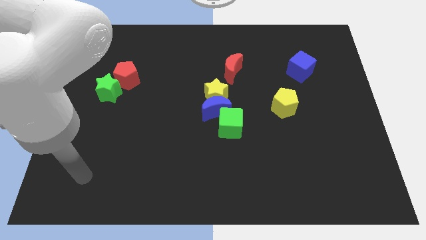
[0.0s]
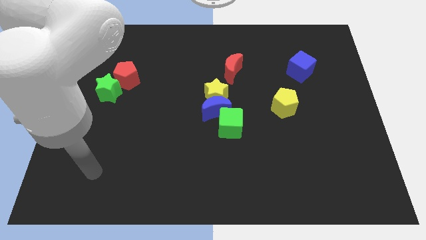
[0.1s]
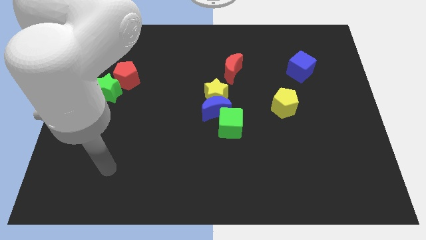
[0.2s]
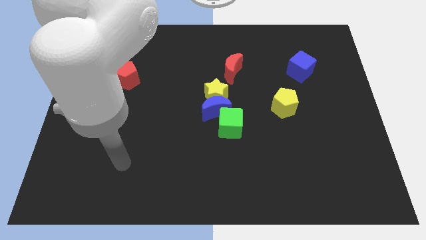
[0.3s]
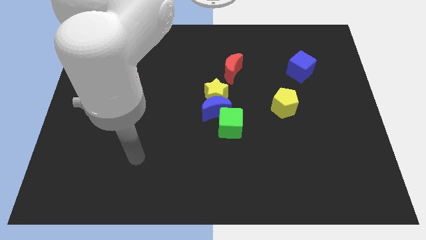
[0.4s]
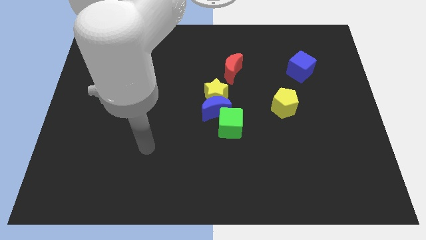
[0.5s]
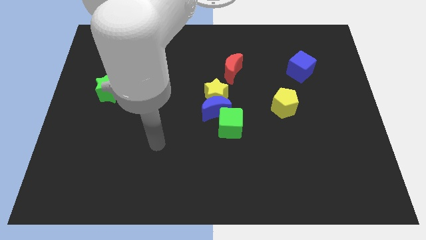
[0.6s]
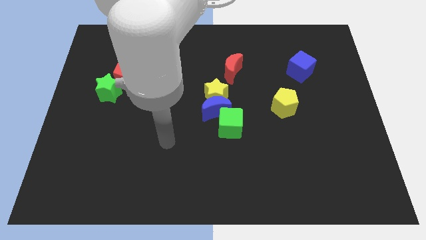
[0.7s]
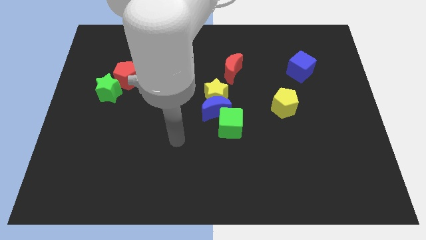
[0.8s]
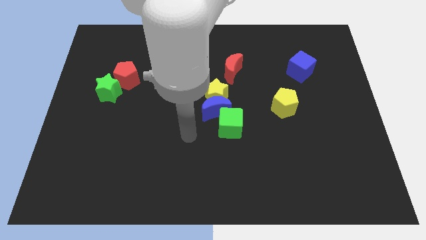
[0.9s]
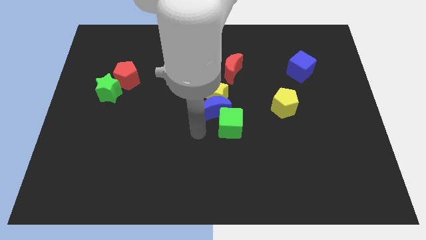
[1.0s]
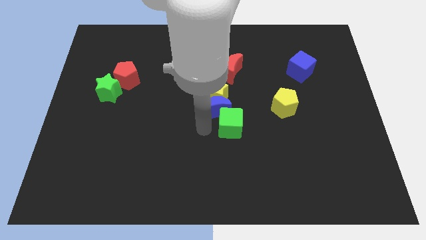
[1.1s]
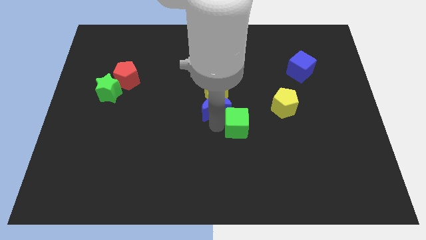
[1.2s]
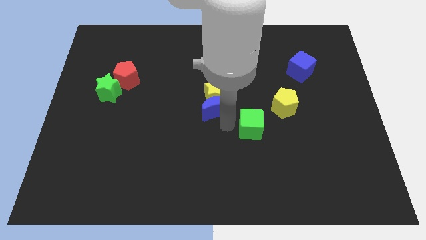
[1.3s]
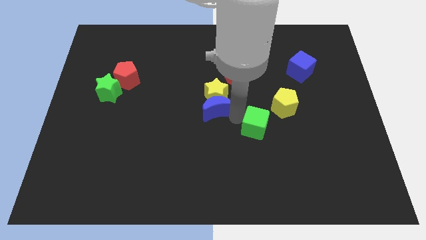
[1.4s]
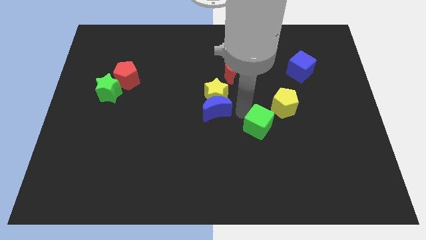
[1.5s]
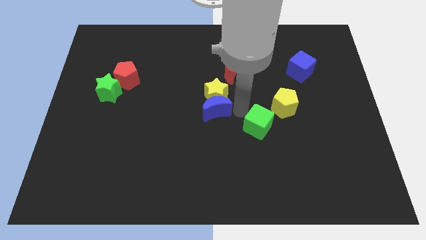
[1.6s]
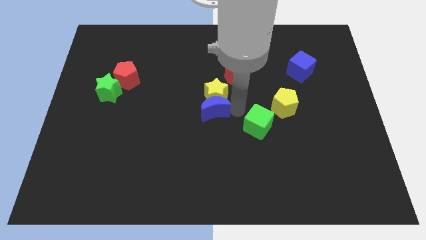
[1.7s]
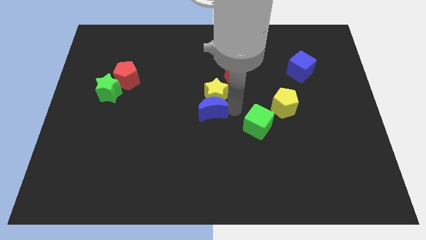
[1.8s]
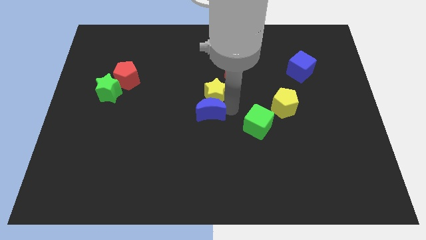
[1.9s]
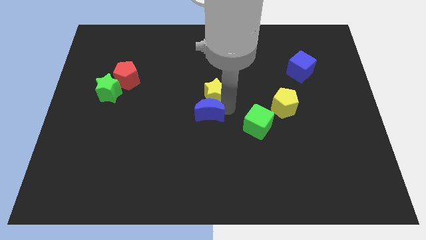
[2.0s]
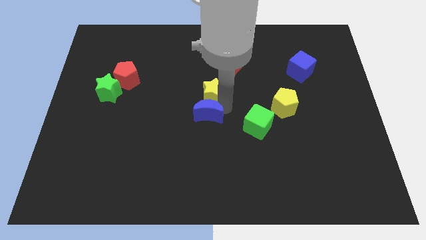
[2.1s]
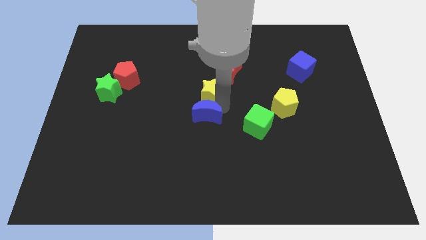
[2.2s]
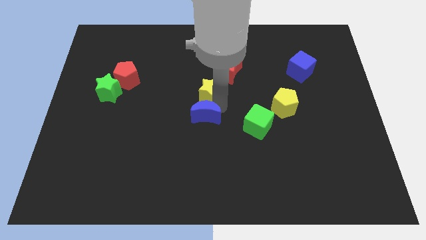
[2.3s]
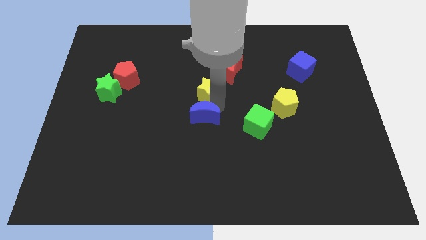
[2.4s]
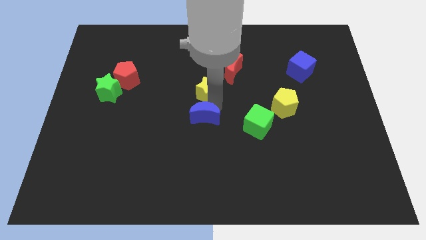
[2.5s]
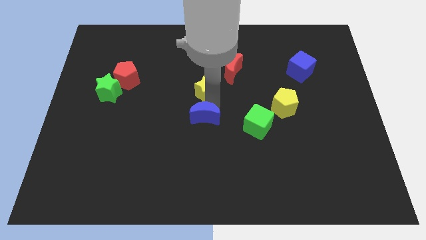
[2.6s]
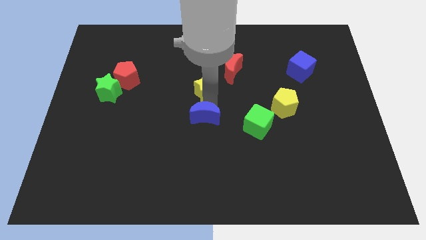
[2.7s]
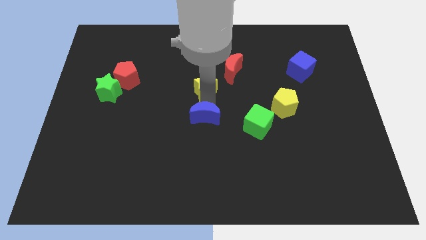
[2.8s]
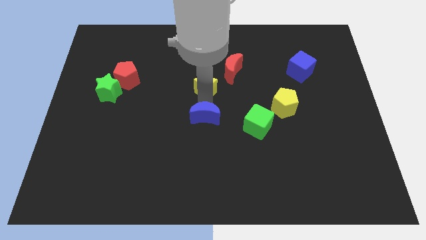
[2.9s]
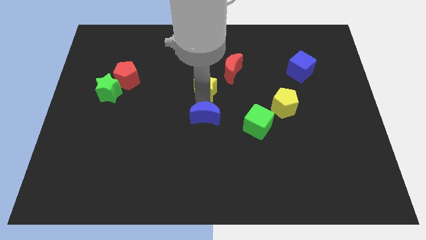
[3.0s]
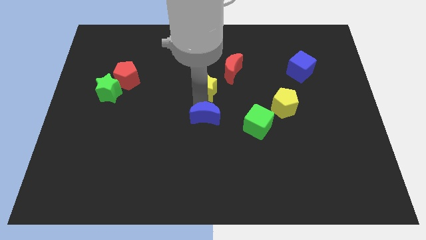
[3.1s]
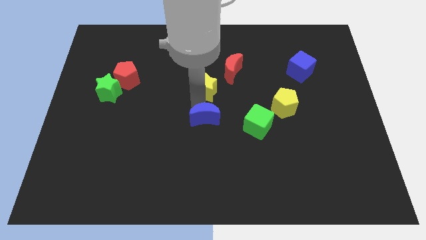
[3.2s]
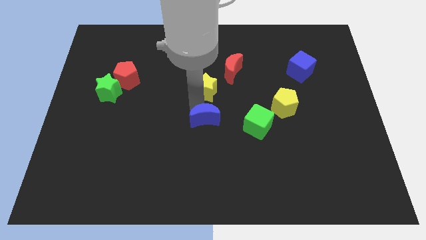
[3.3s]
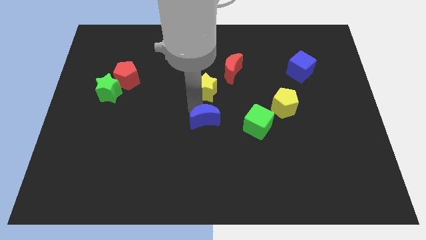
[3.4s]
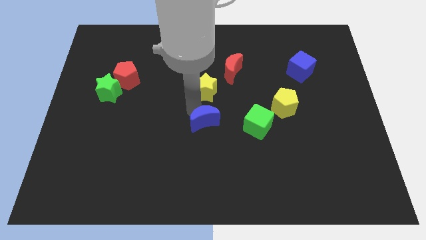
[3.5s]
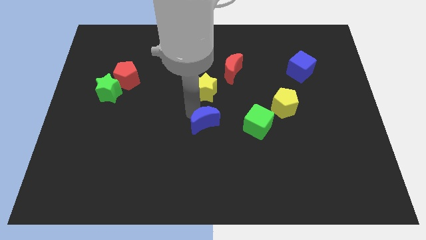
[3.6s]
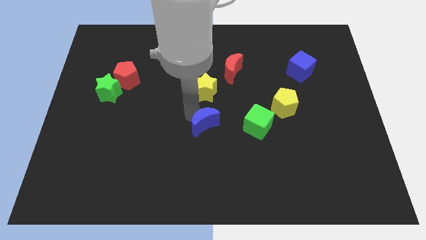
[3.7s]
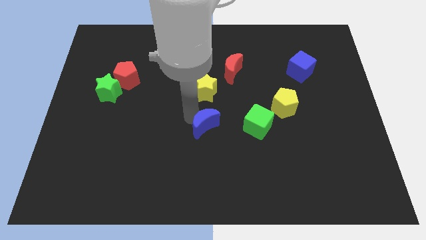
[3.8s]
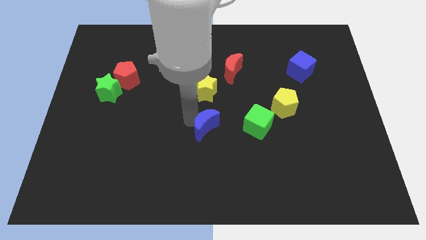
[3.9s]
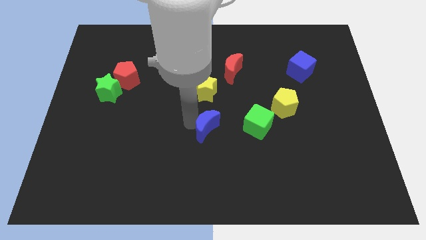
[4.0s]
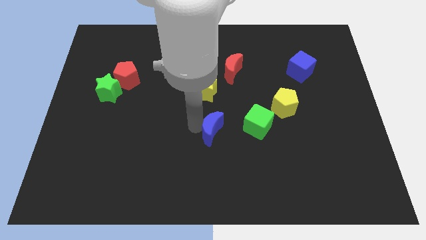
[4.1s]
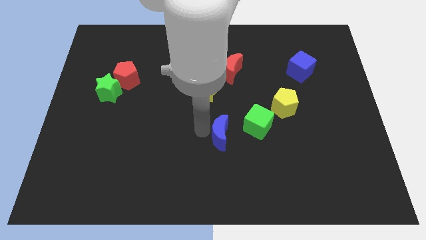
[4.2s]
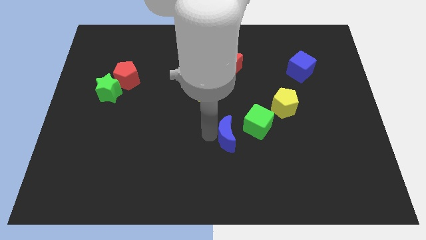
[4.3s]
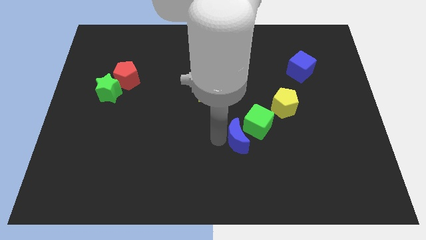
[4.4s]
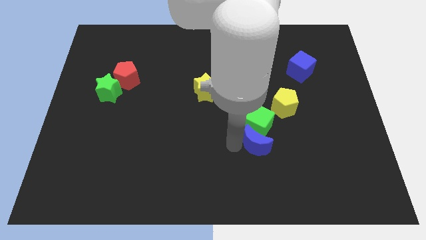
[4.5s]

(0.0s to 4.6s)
move the blue moon away from the yellow star and green cube

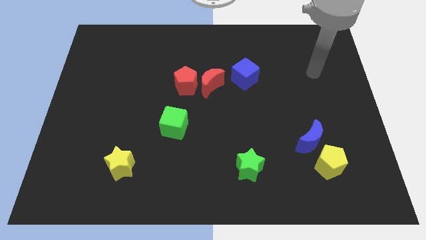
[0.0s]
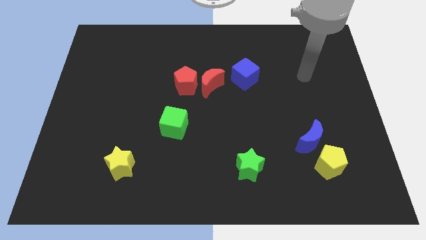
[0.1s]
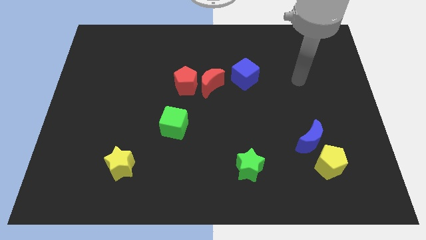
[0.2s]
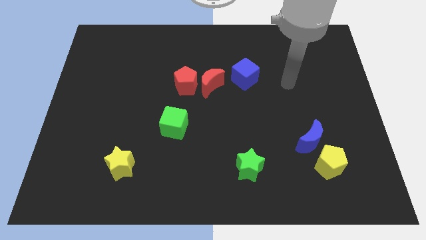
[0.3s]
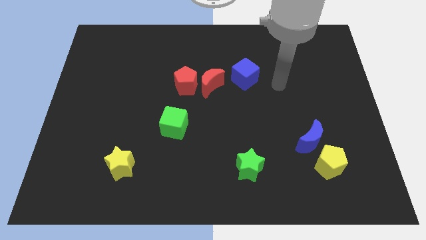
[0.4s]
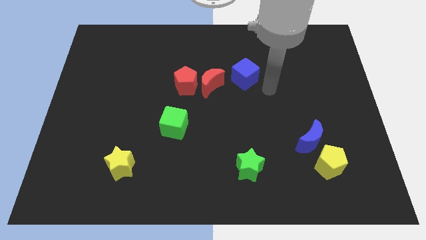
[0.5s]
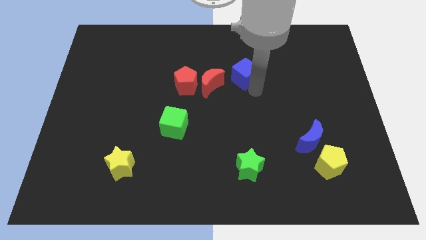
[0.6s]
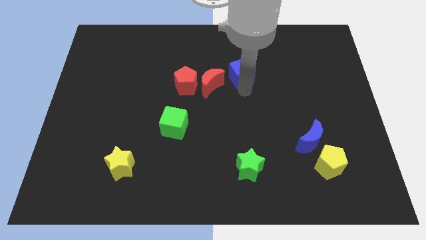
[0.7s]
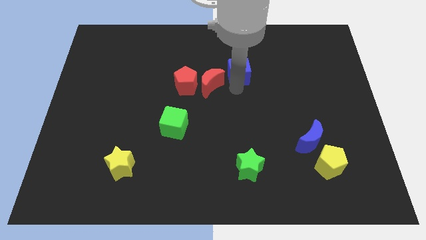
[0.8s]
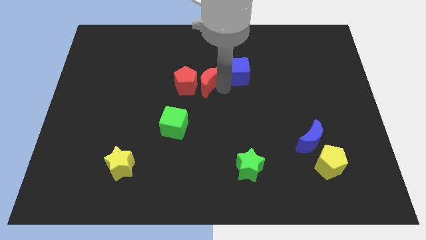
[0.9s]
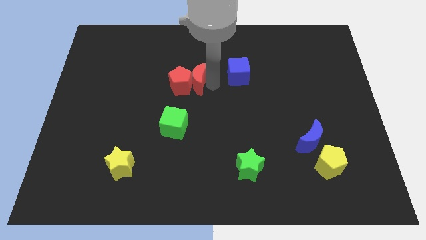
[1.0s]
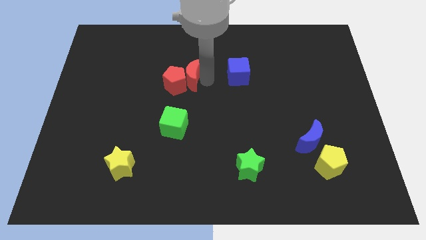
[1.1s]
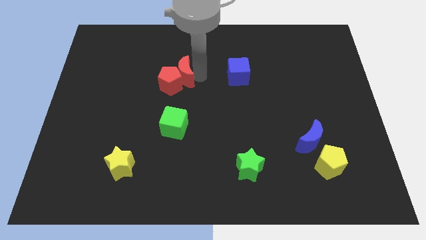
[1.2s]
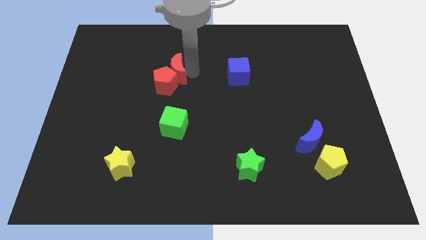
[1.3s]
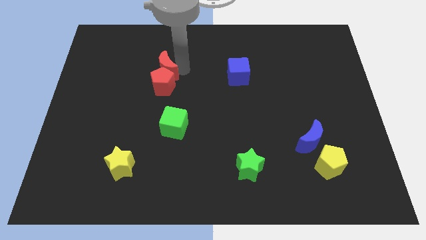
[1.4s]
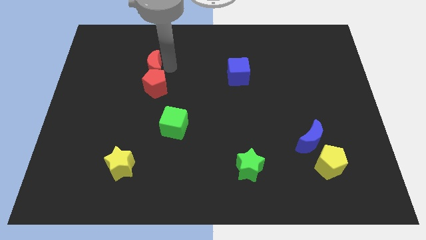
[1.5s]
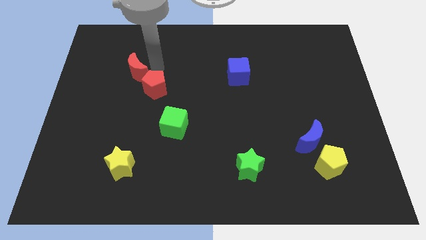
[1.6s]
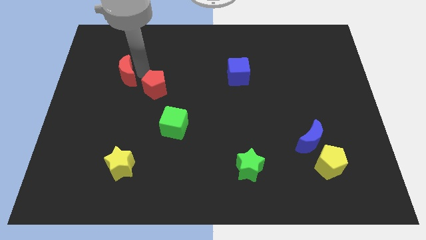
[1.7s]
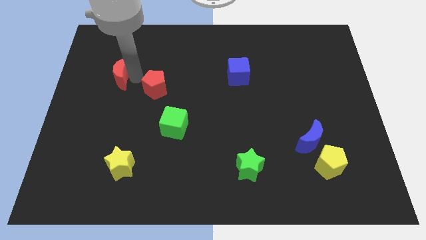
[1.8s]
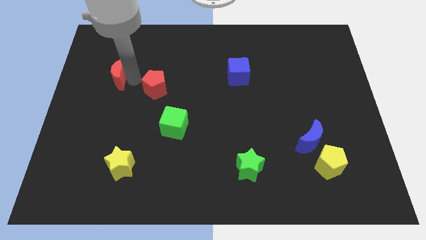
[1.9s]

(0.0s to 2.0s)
move the red pentagon away from the red moon

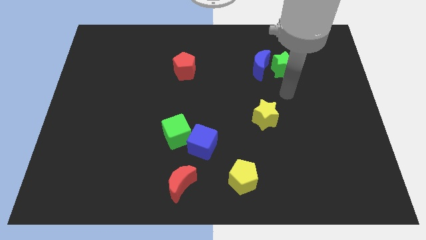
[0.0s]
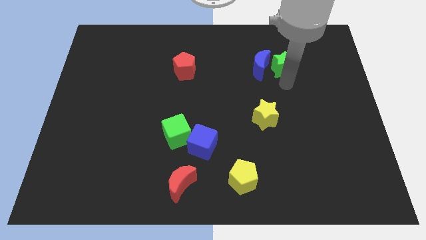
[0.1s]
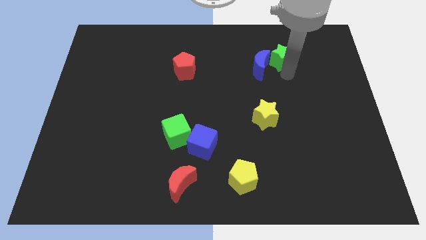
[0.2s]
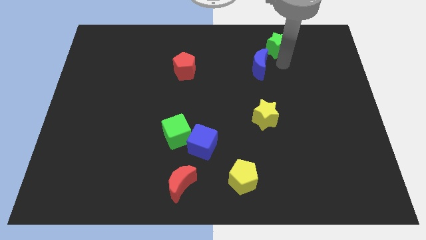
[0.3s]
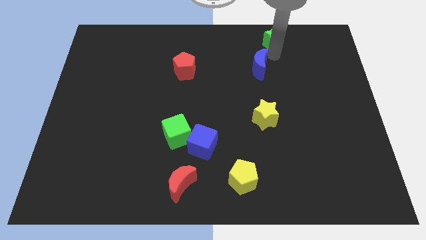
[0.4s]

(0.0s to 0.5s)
separate the blue moon from the green star

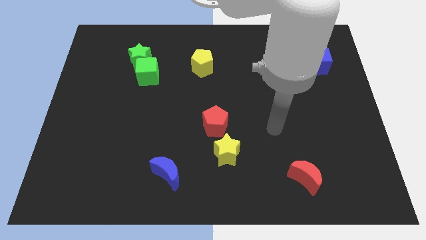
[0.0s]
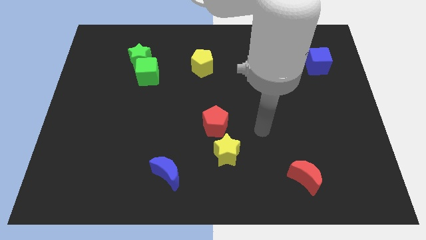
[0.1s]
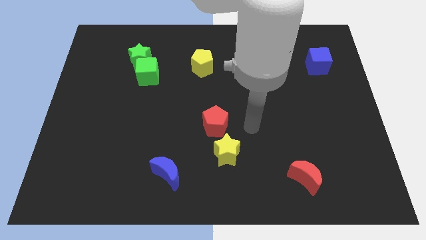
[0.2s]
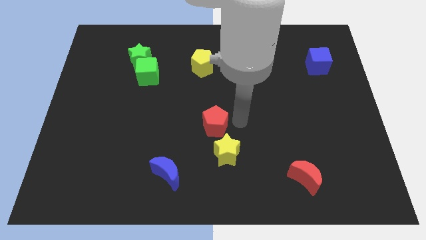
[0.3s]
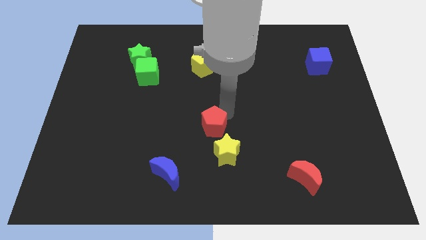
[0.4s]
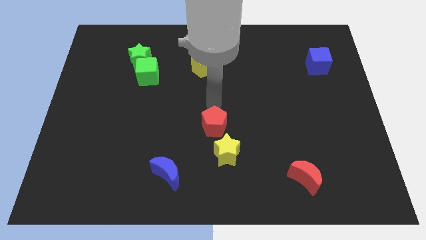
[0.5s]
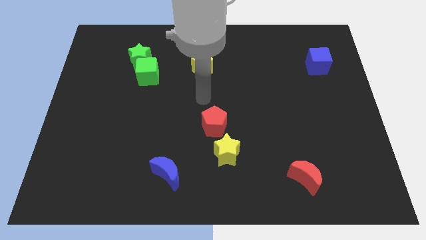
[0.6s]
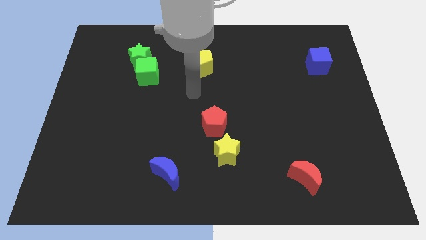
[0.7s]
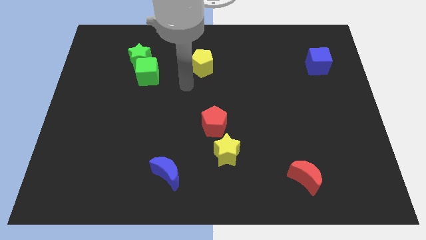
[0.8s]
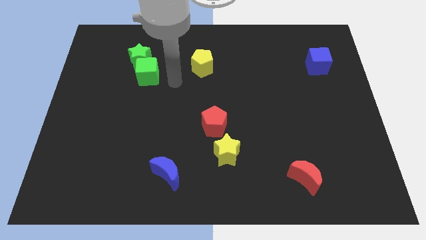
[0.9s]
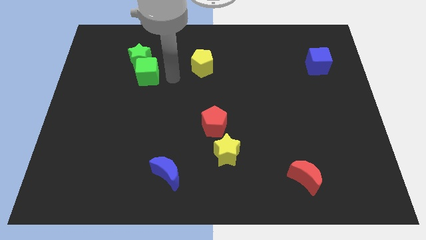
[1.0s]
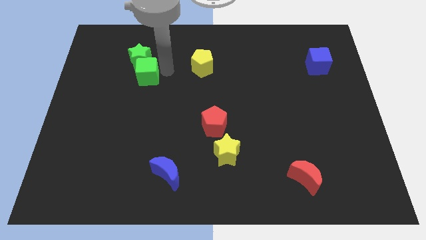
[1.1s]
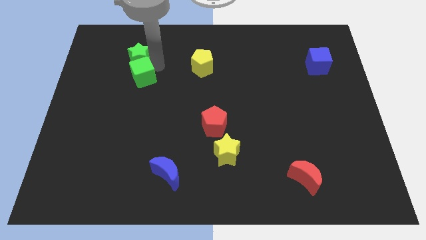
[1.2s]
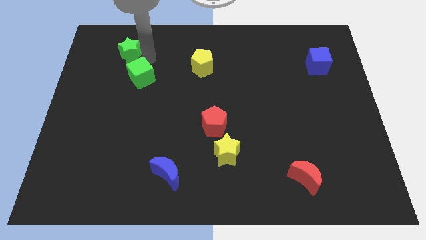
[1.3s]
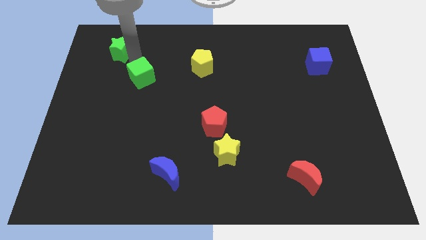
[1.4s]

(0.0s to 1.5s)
move the green cube away from the green star

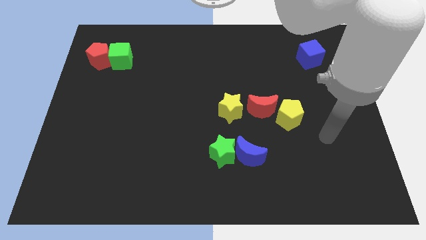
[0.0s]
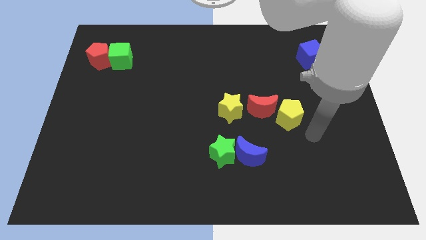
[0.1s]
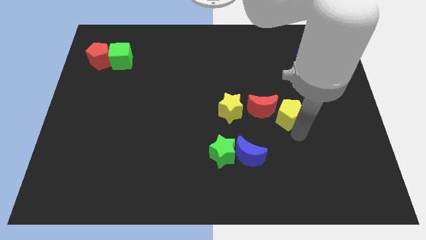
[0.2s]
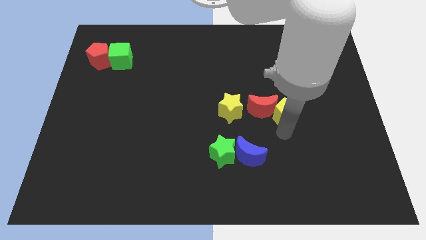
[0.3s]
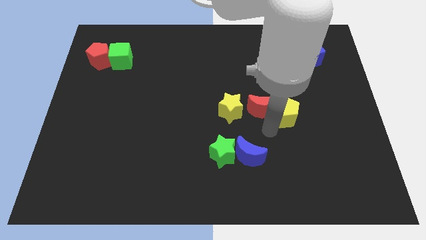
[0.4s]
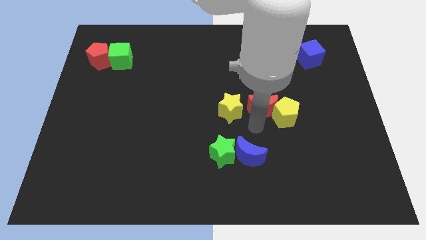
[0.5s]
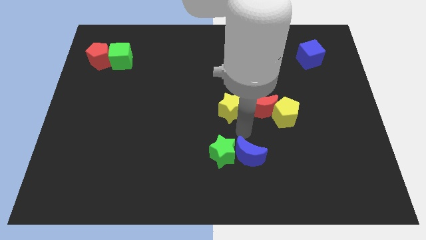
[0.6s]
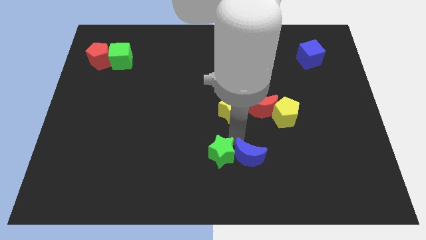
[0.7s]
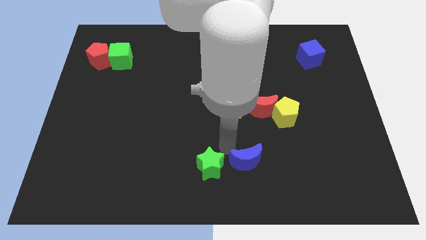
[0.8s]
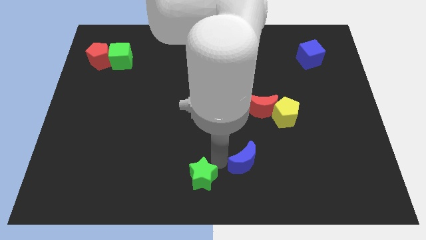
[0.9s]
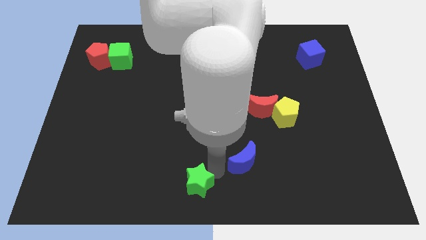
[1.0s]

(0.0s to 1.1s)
pull the blue moon apart from the green star
